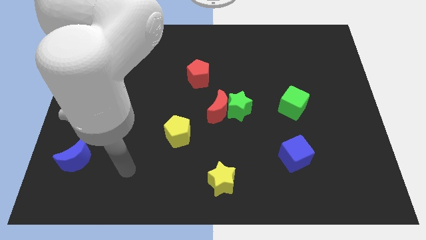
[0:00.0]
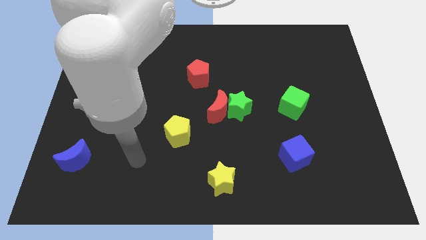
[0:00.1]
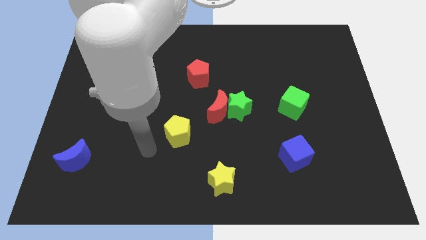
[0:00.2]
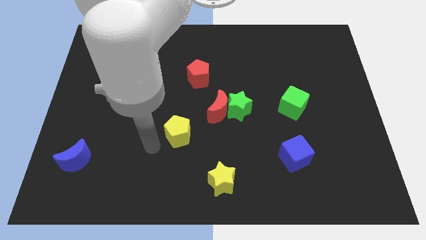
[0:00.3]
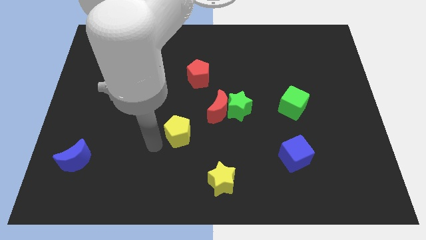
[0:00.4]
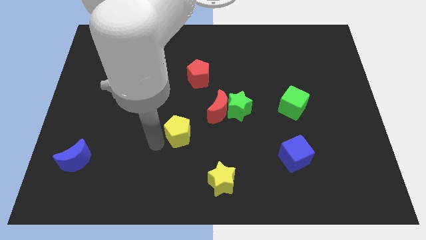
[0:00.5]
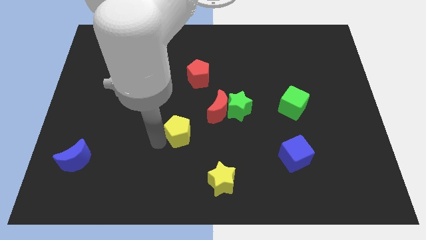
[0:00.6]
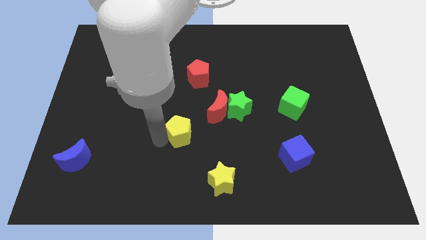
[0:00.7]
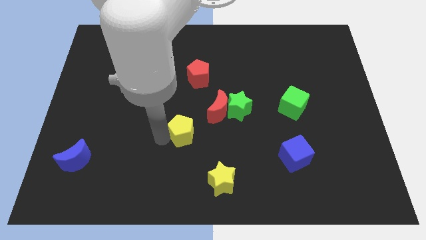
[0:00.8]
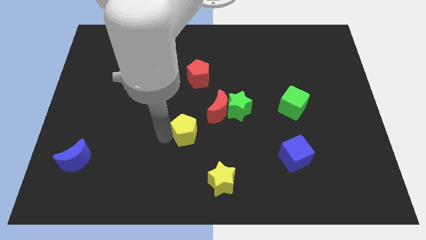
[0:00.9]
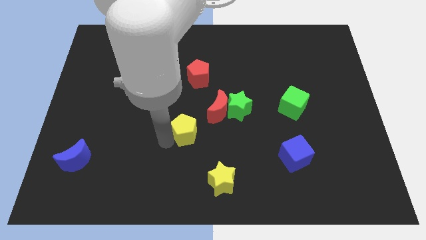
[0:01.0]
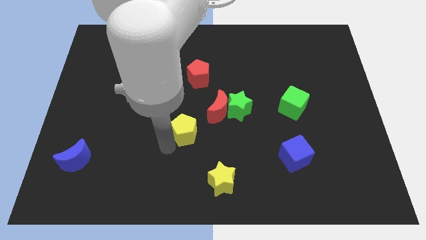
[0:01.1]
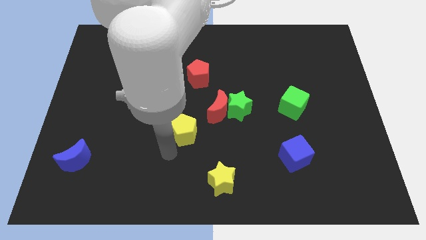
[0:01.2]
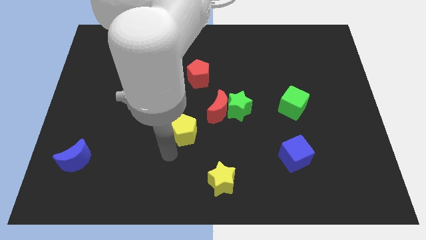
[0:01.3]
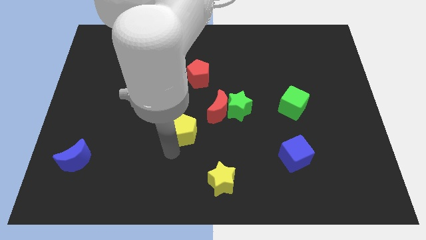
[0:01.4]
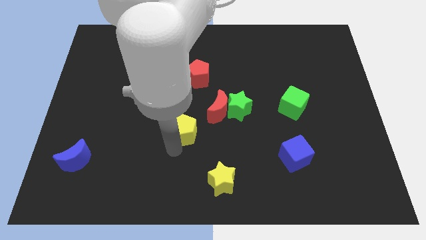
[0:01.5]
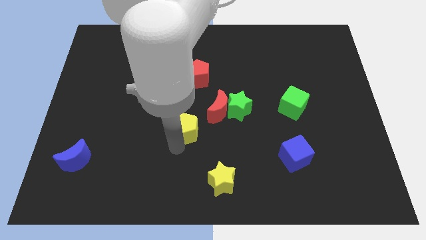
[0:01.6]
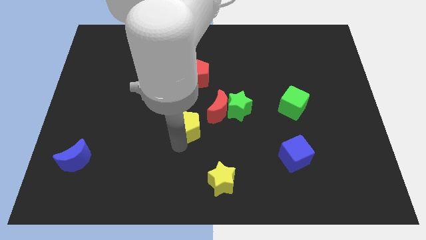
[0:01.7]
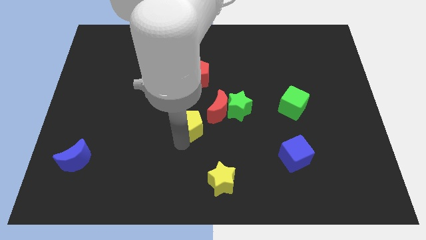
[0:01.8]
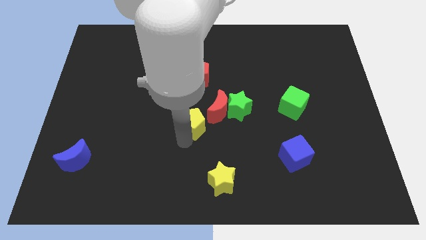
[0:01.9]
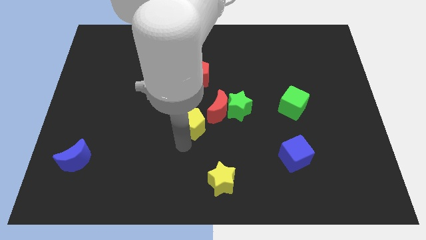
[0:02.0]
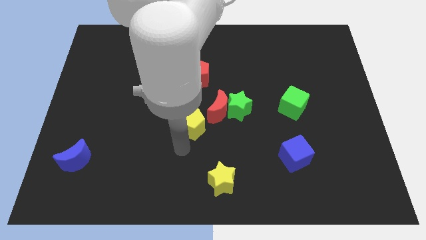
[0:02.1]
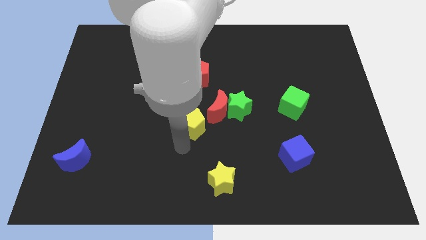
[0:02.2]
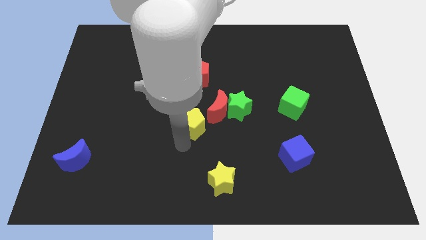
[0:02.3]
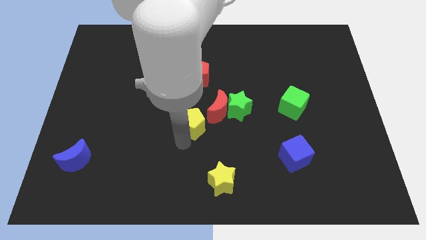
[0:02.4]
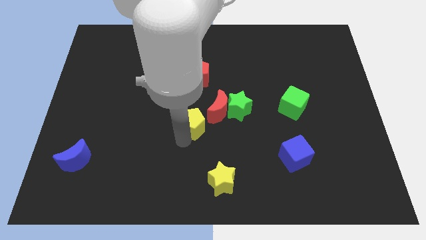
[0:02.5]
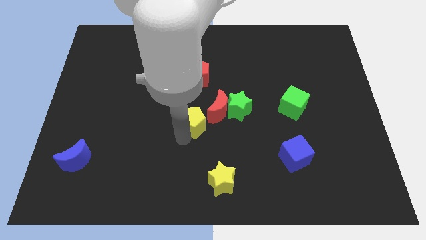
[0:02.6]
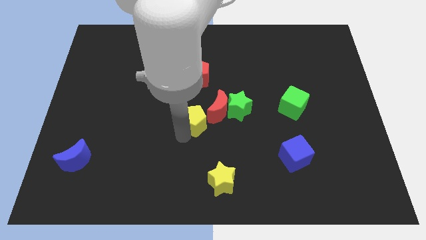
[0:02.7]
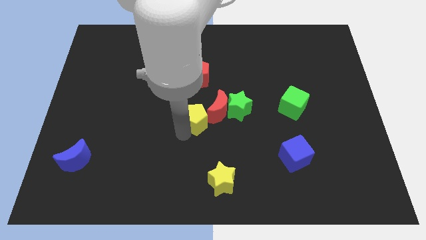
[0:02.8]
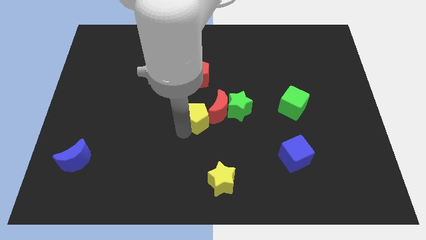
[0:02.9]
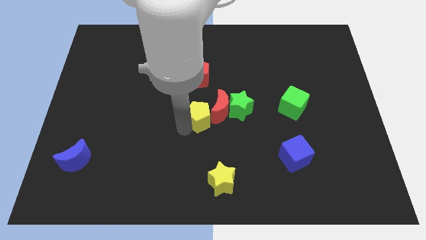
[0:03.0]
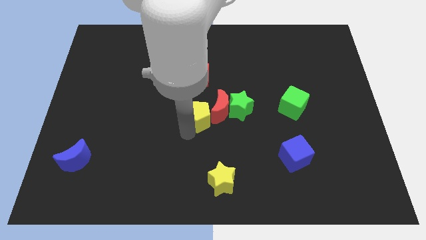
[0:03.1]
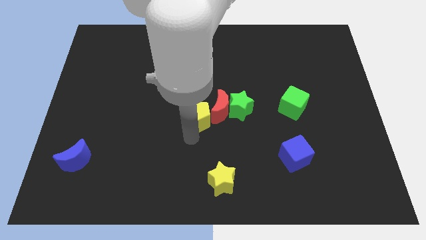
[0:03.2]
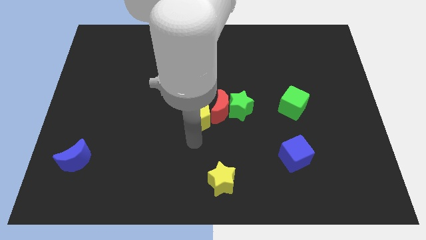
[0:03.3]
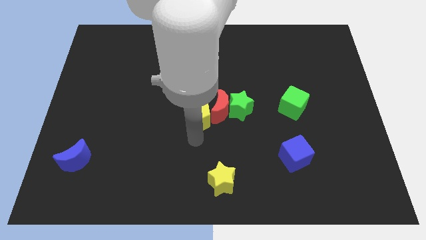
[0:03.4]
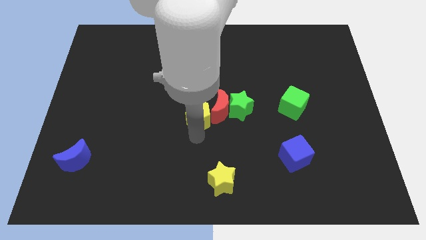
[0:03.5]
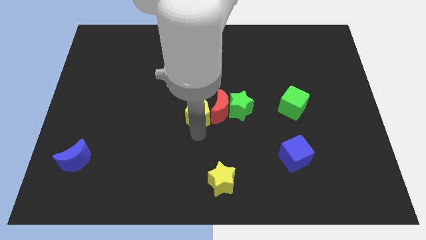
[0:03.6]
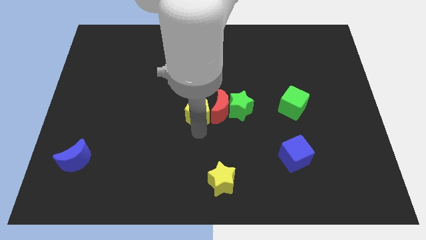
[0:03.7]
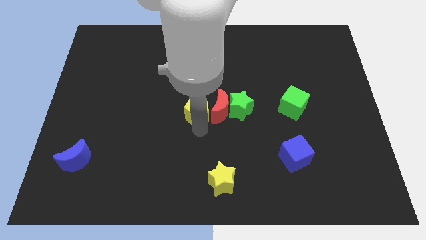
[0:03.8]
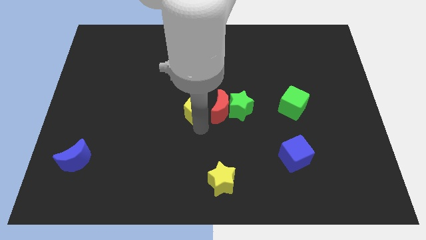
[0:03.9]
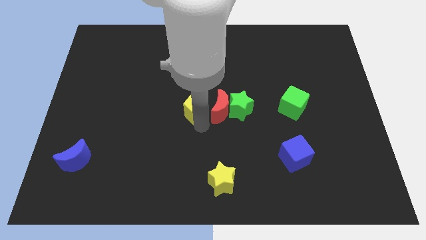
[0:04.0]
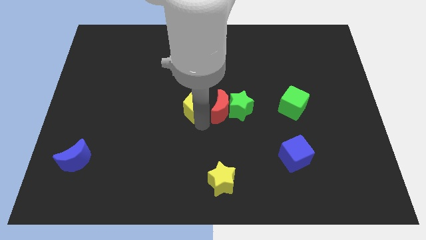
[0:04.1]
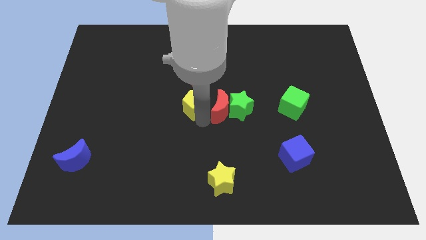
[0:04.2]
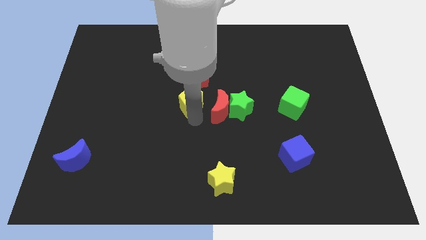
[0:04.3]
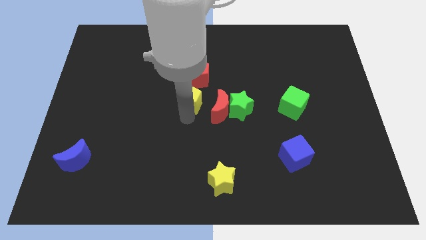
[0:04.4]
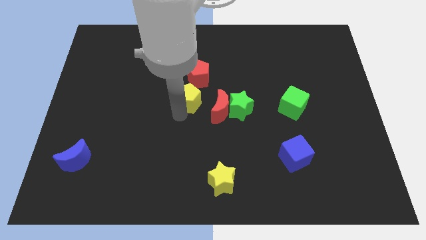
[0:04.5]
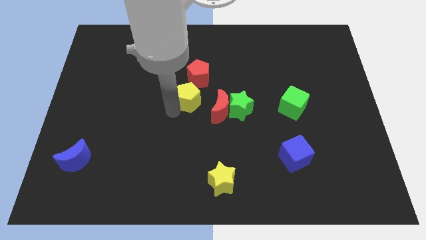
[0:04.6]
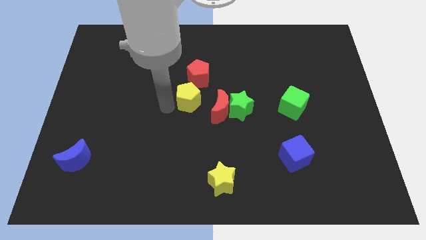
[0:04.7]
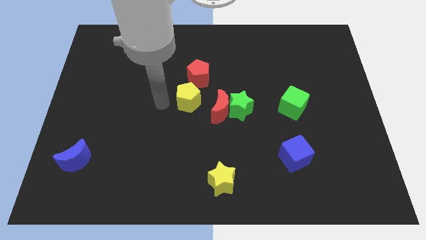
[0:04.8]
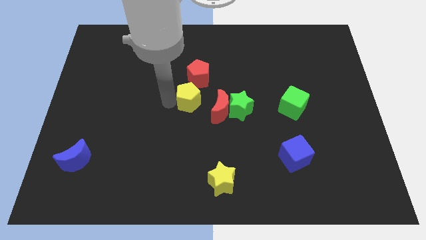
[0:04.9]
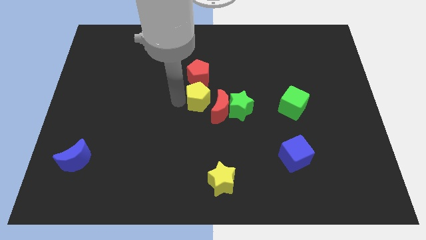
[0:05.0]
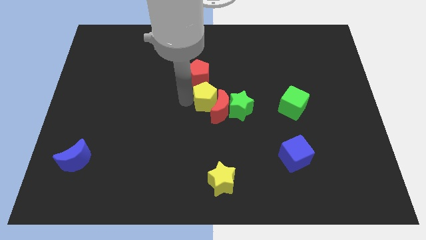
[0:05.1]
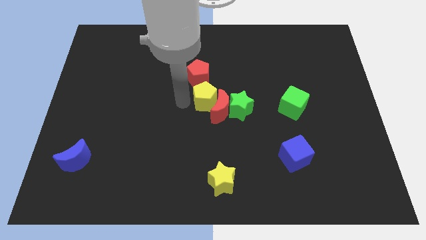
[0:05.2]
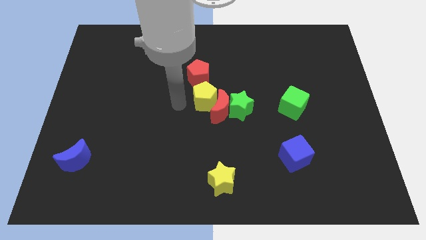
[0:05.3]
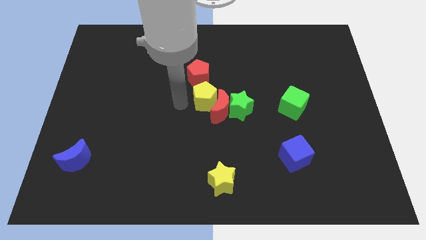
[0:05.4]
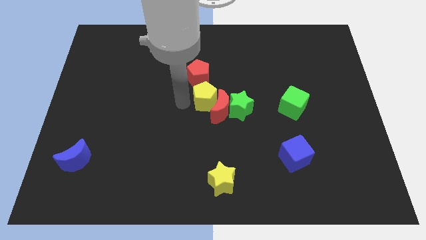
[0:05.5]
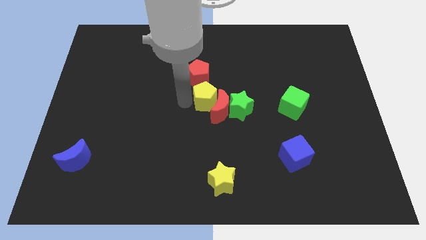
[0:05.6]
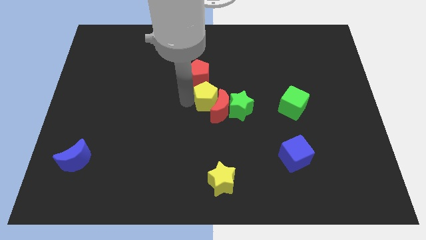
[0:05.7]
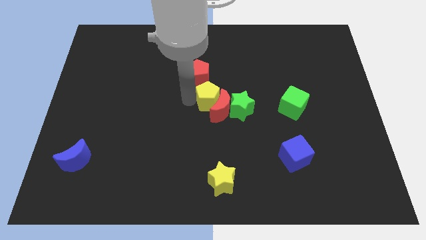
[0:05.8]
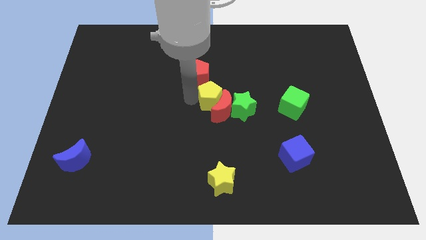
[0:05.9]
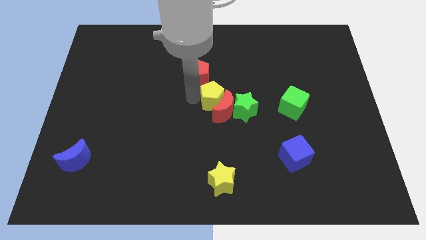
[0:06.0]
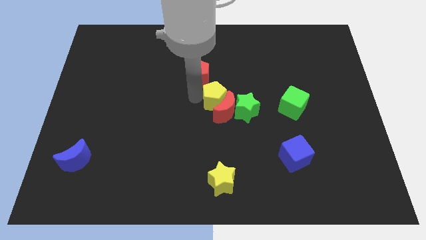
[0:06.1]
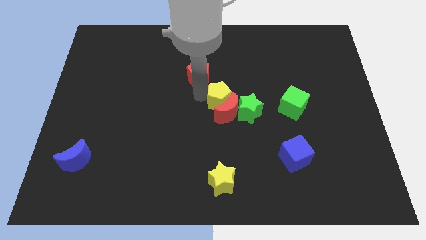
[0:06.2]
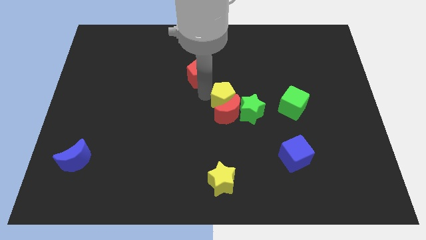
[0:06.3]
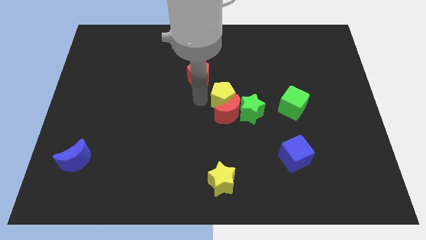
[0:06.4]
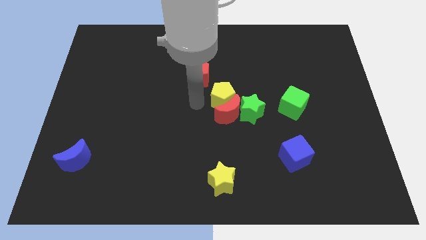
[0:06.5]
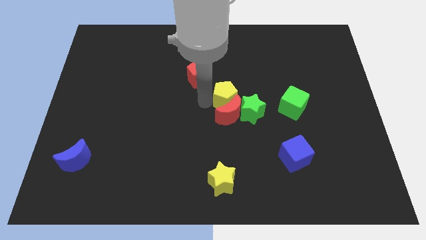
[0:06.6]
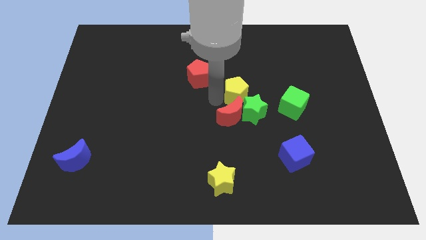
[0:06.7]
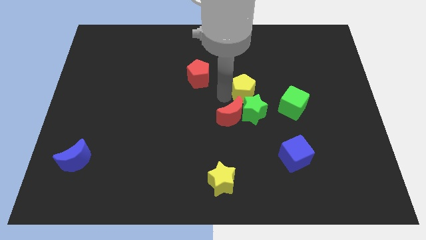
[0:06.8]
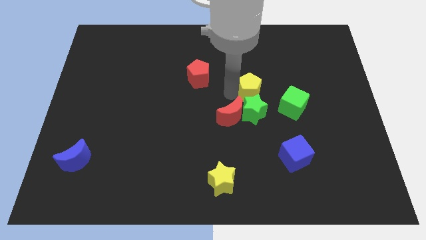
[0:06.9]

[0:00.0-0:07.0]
put the yellow pentagon to the top left of the green cube
